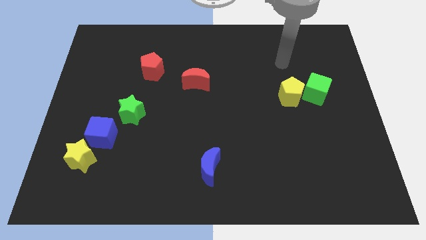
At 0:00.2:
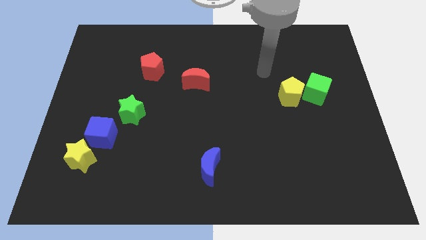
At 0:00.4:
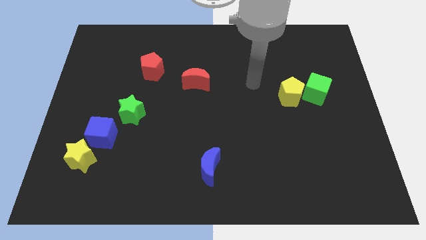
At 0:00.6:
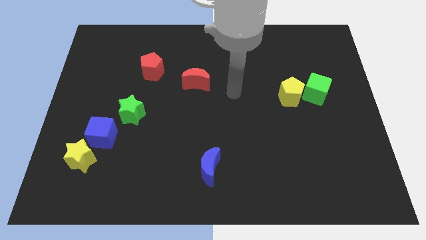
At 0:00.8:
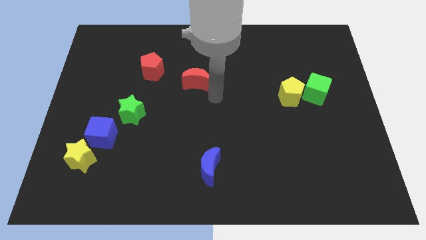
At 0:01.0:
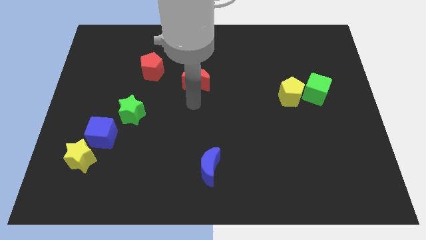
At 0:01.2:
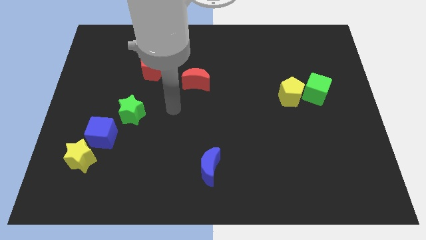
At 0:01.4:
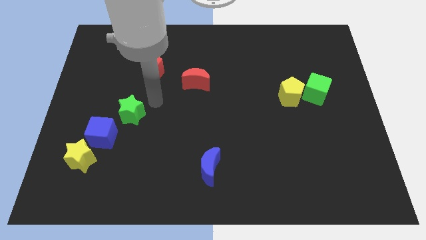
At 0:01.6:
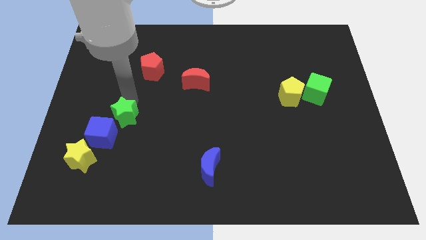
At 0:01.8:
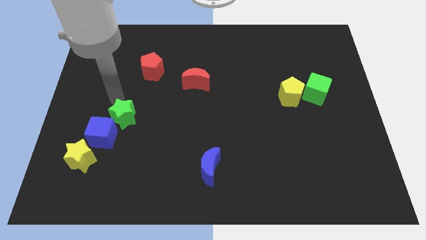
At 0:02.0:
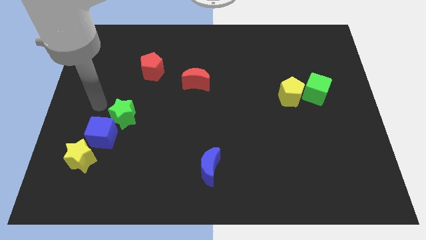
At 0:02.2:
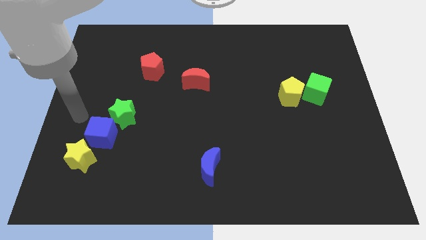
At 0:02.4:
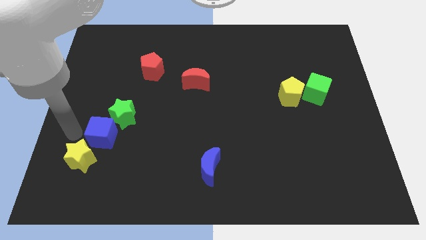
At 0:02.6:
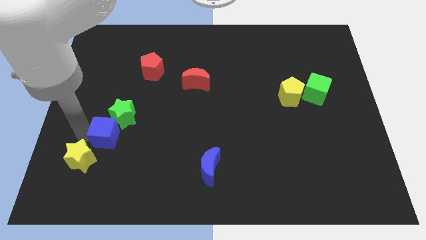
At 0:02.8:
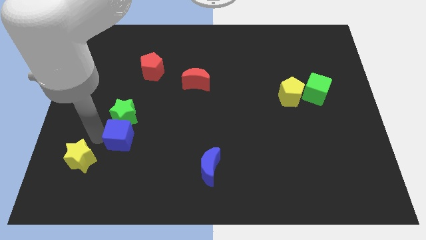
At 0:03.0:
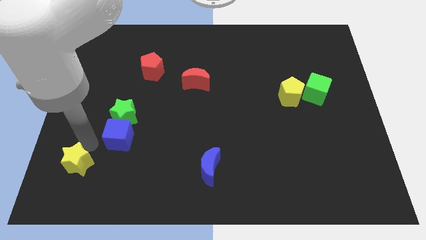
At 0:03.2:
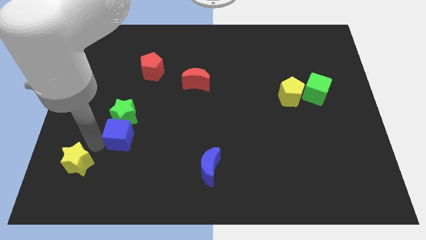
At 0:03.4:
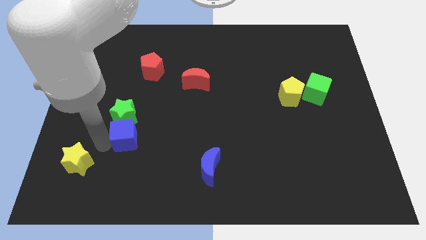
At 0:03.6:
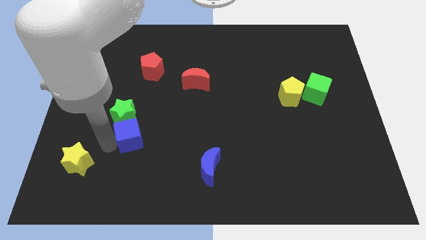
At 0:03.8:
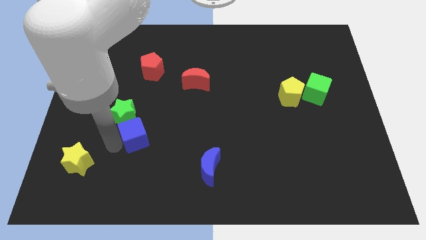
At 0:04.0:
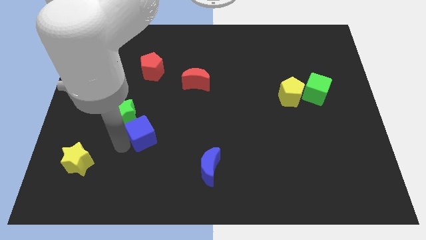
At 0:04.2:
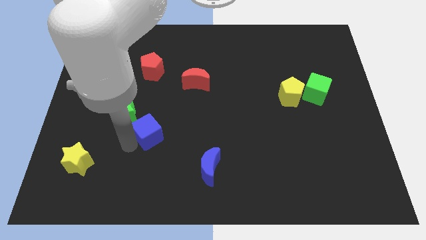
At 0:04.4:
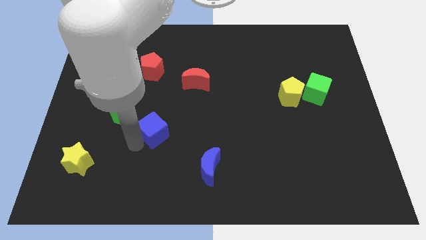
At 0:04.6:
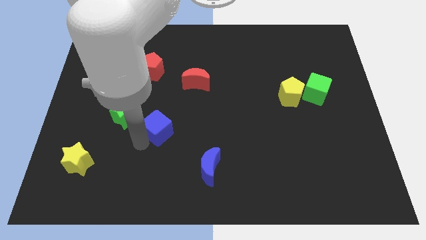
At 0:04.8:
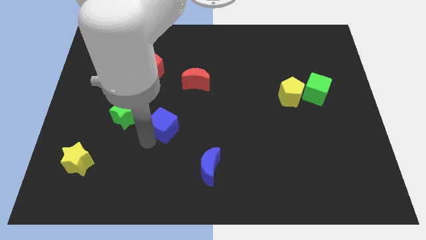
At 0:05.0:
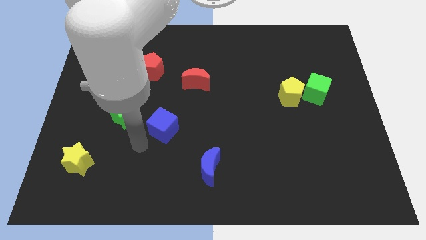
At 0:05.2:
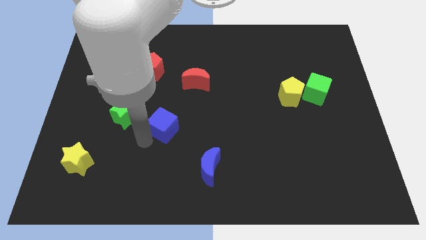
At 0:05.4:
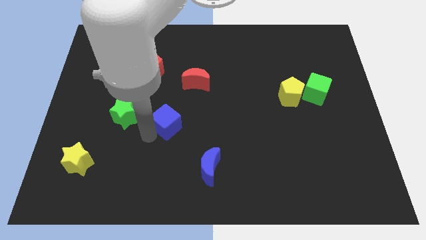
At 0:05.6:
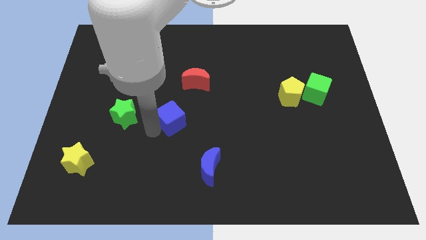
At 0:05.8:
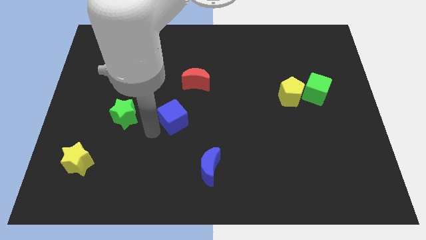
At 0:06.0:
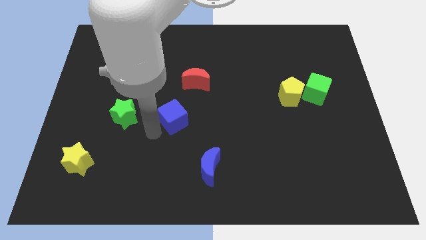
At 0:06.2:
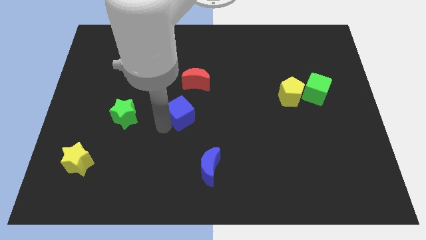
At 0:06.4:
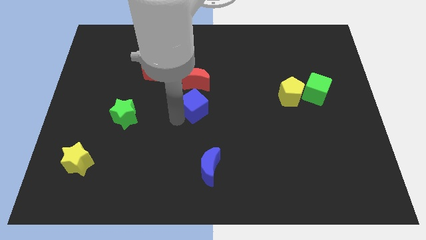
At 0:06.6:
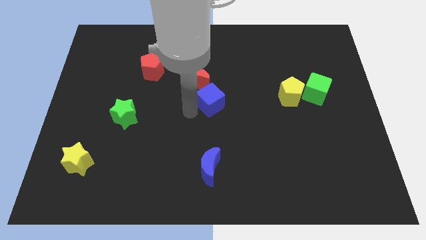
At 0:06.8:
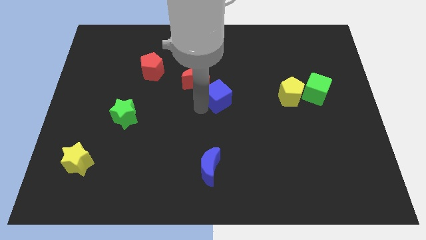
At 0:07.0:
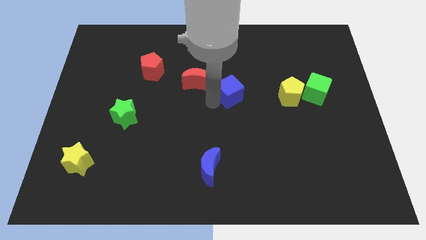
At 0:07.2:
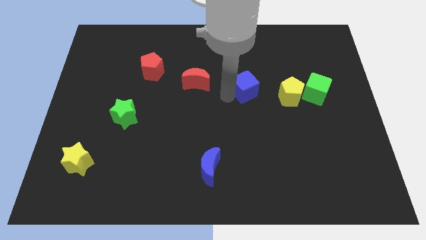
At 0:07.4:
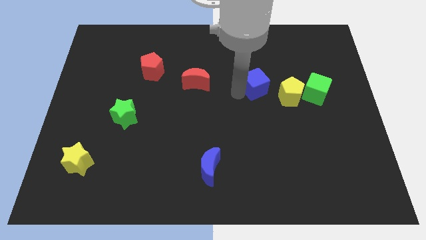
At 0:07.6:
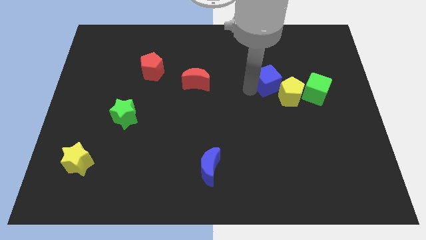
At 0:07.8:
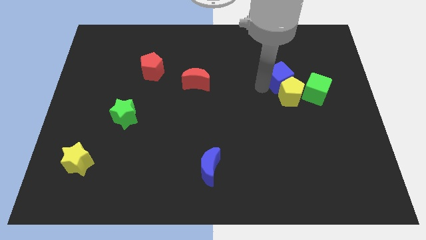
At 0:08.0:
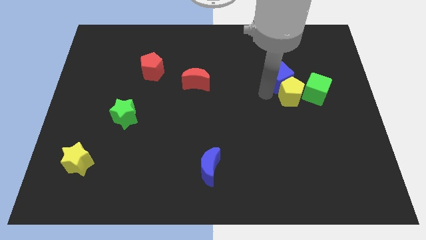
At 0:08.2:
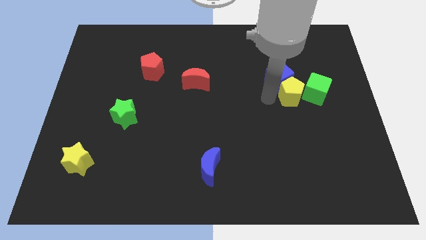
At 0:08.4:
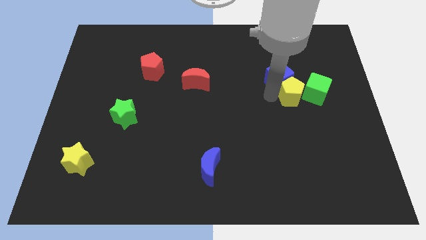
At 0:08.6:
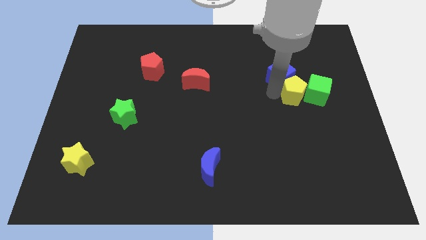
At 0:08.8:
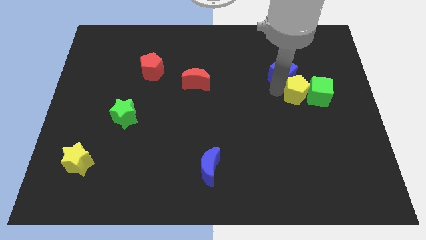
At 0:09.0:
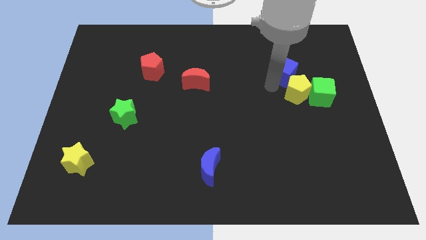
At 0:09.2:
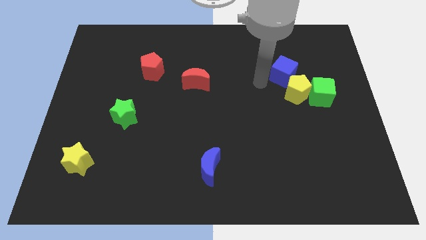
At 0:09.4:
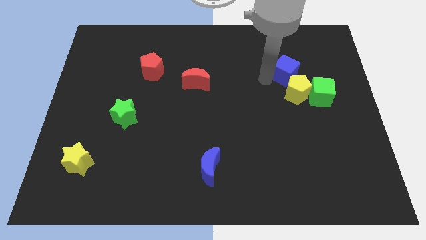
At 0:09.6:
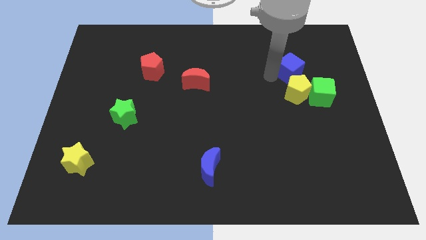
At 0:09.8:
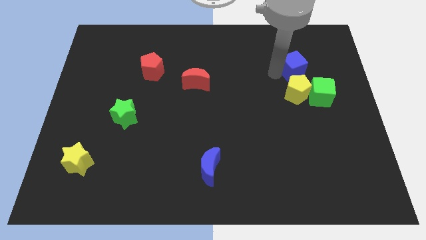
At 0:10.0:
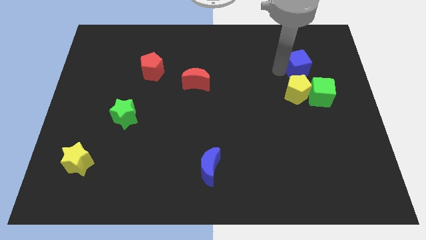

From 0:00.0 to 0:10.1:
push the blue cube to the top of the green cube

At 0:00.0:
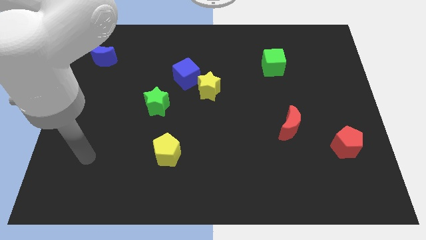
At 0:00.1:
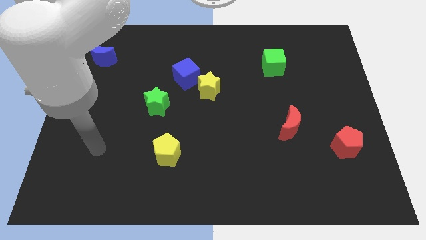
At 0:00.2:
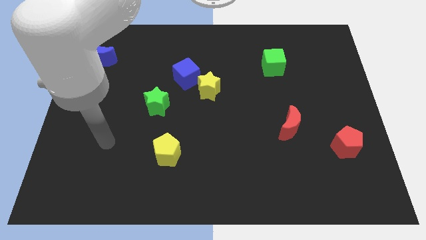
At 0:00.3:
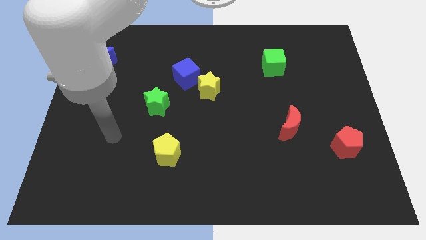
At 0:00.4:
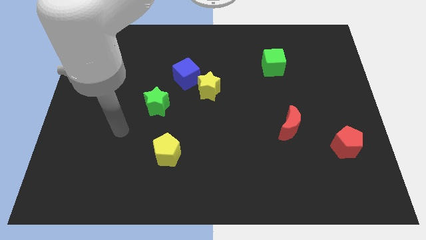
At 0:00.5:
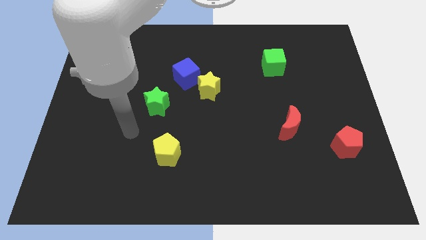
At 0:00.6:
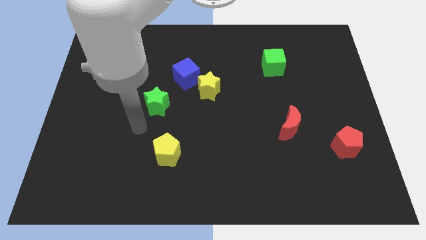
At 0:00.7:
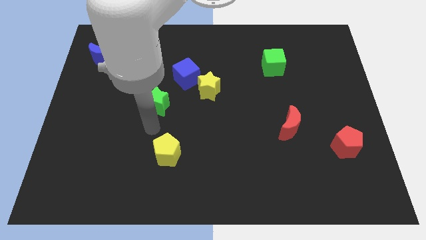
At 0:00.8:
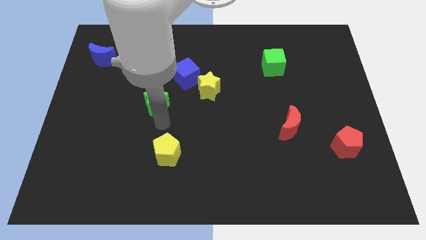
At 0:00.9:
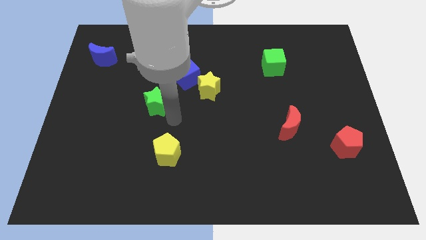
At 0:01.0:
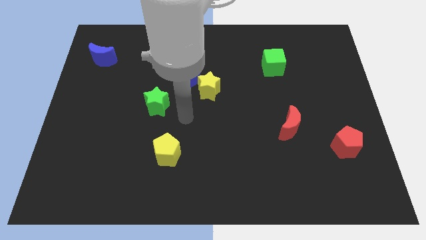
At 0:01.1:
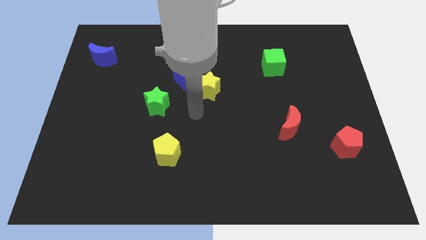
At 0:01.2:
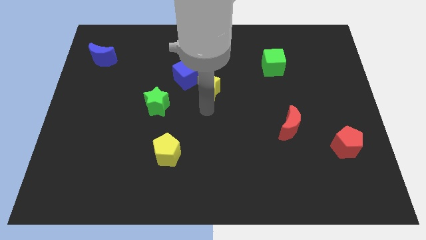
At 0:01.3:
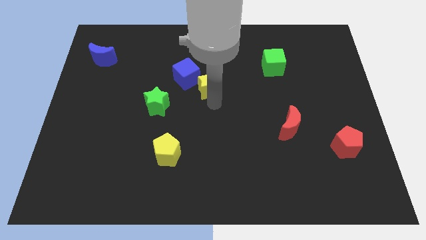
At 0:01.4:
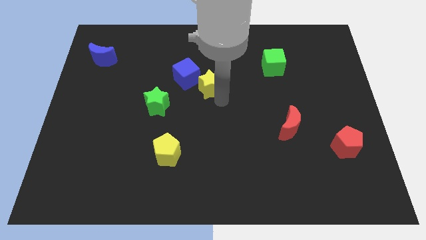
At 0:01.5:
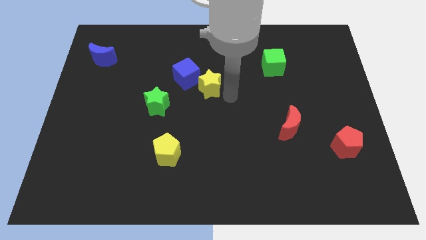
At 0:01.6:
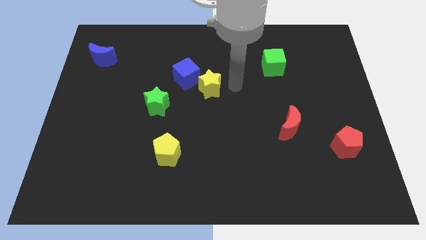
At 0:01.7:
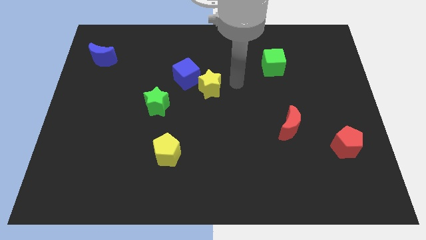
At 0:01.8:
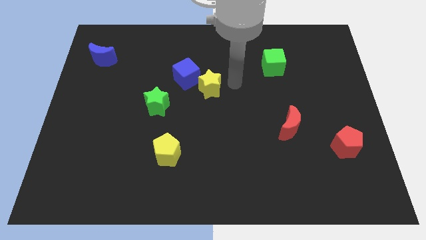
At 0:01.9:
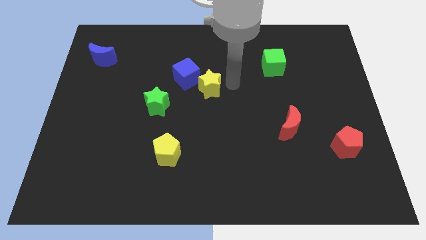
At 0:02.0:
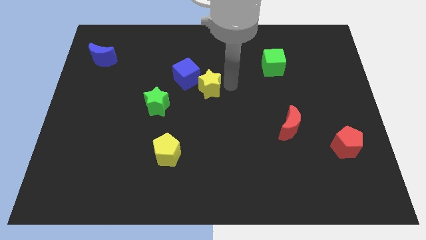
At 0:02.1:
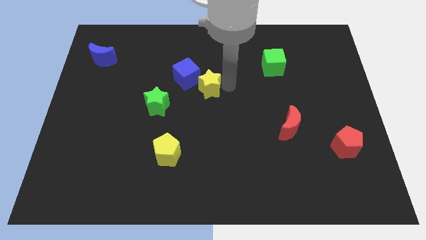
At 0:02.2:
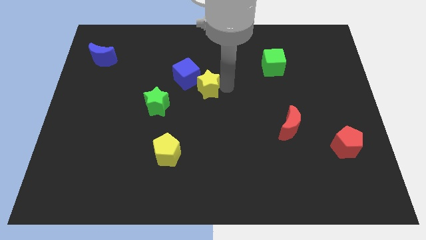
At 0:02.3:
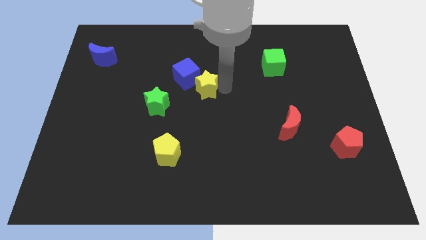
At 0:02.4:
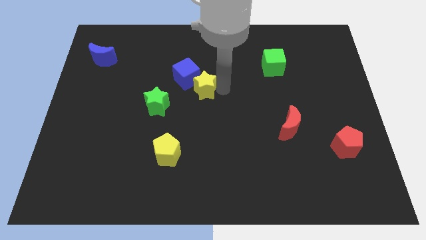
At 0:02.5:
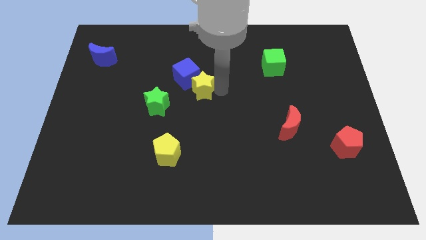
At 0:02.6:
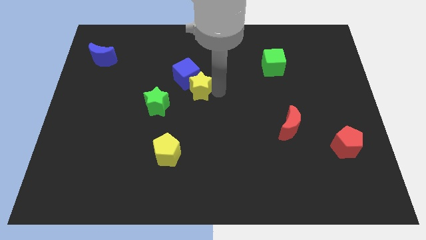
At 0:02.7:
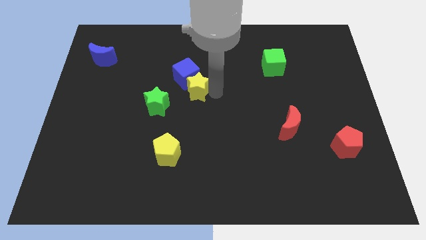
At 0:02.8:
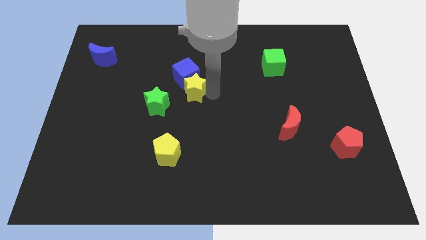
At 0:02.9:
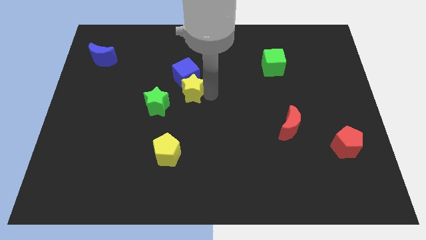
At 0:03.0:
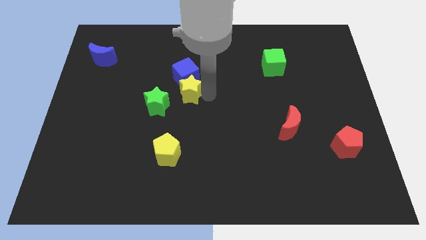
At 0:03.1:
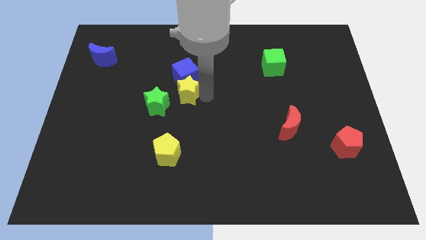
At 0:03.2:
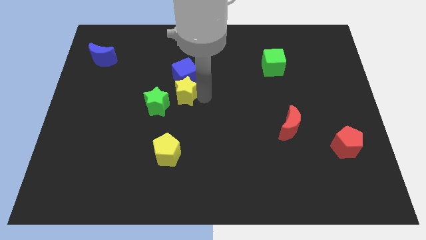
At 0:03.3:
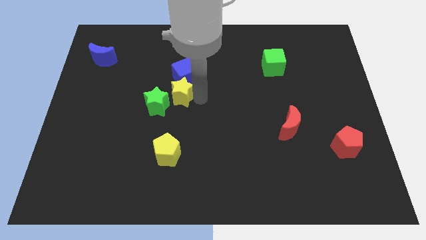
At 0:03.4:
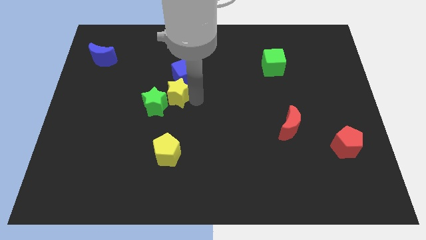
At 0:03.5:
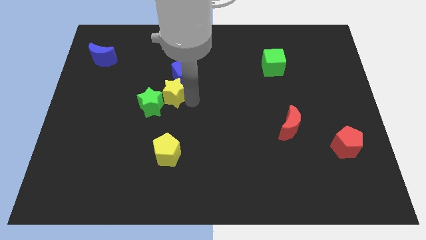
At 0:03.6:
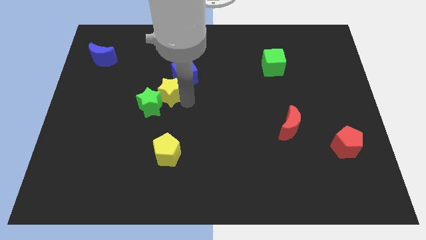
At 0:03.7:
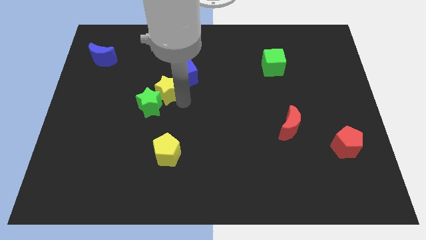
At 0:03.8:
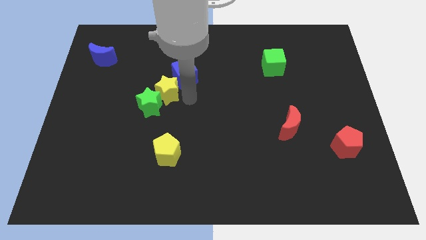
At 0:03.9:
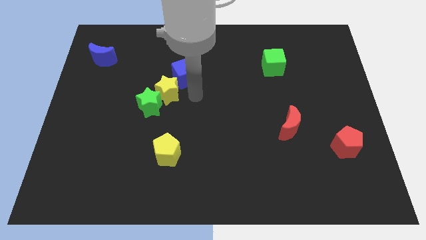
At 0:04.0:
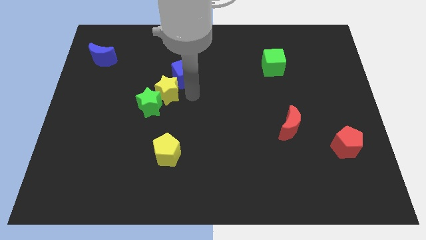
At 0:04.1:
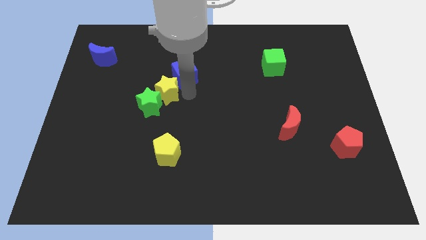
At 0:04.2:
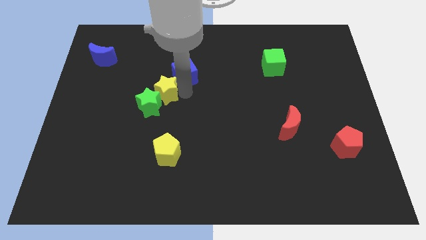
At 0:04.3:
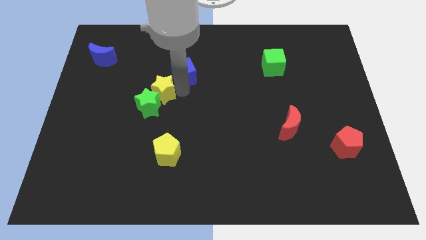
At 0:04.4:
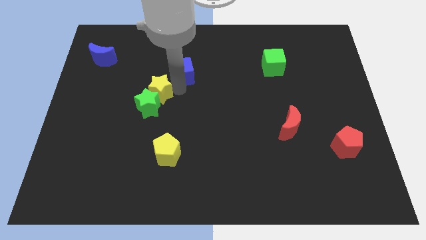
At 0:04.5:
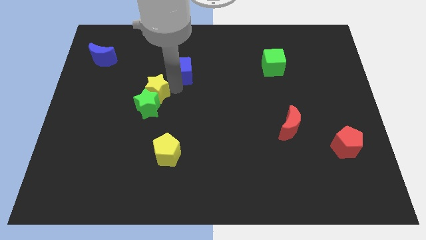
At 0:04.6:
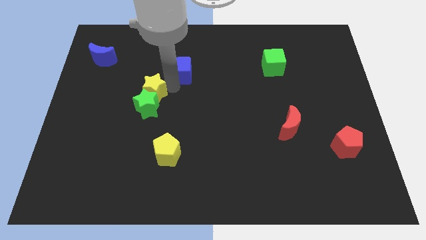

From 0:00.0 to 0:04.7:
move the yellow star to the top left side of the green star
